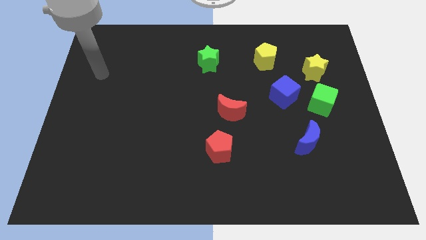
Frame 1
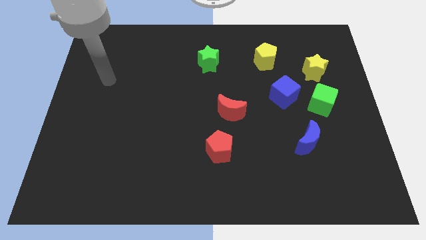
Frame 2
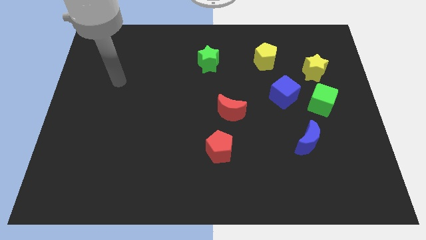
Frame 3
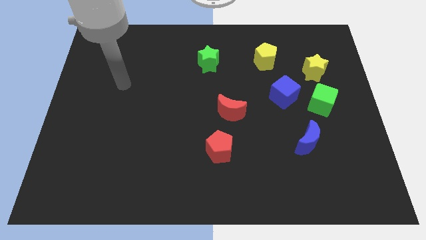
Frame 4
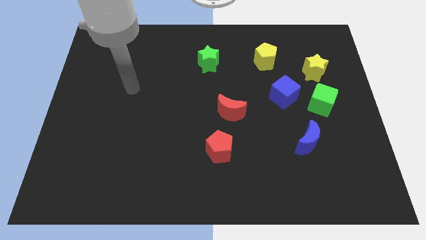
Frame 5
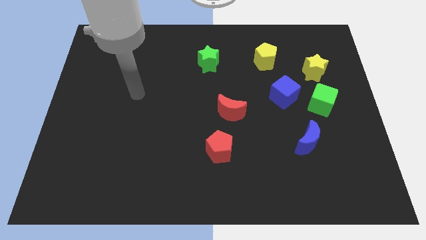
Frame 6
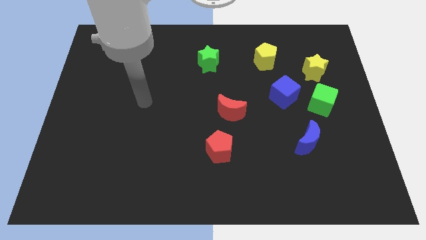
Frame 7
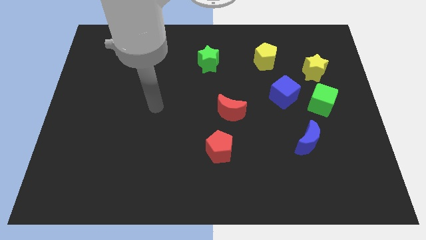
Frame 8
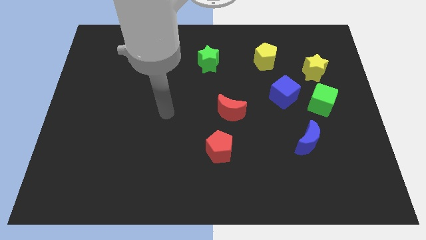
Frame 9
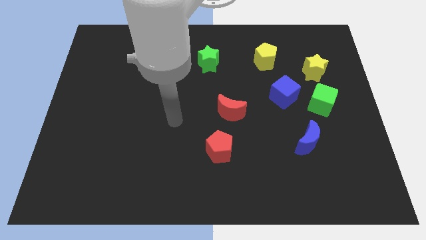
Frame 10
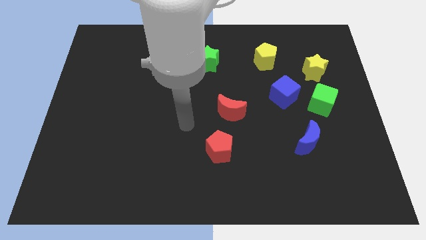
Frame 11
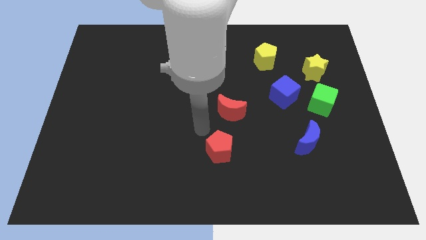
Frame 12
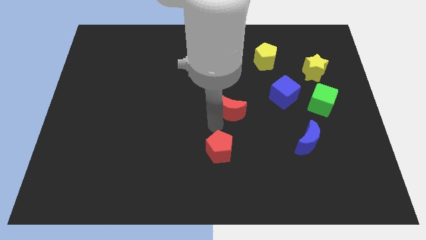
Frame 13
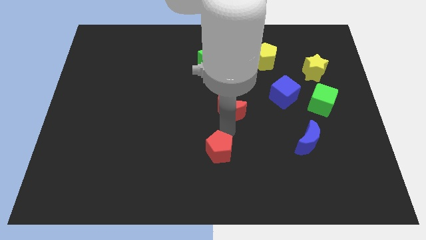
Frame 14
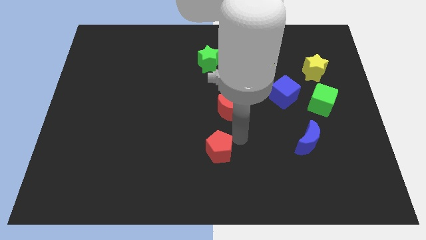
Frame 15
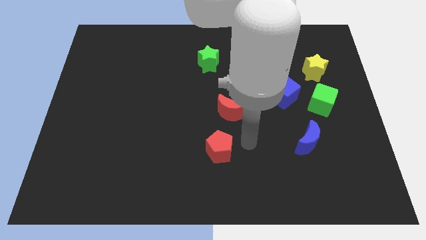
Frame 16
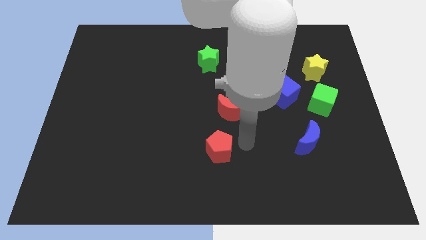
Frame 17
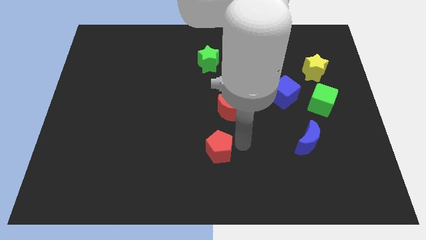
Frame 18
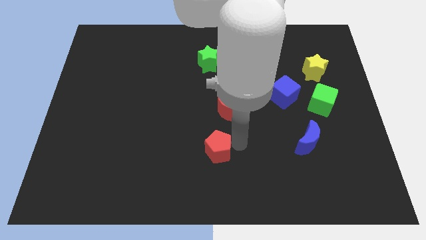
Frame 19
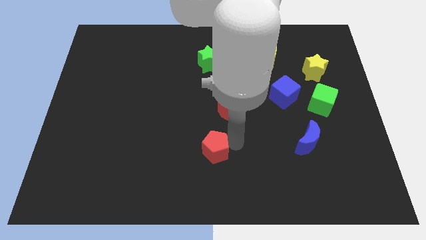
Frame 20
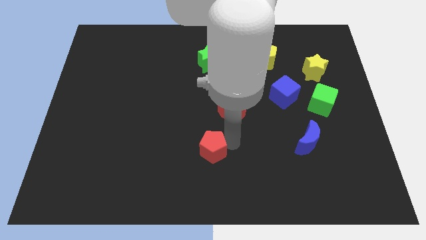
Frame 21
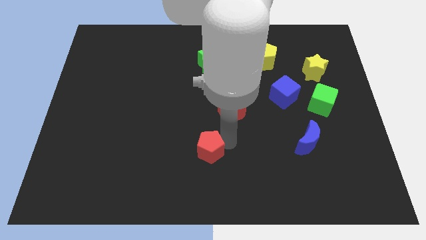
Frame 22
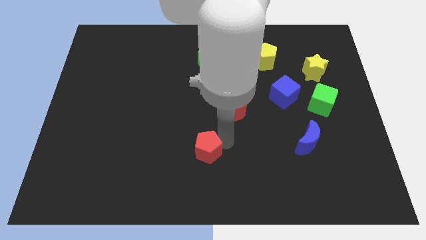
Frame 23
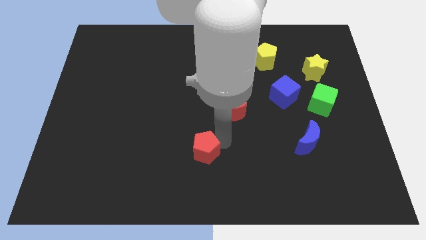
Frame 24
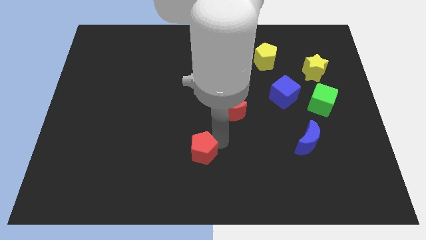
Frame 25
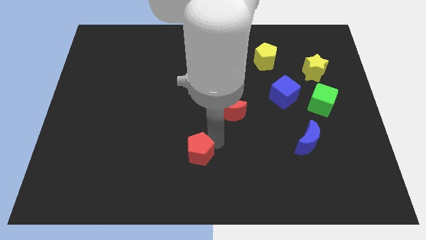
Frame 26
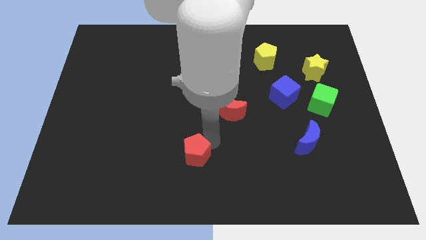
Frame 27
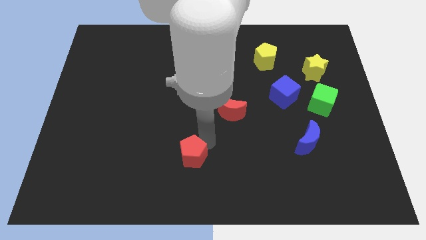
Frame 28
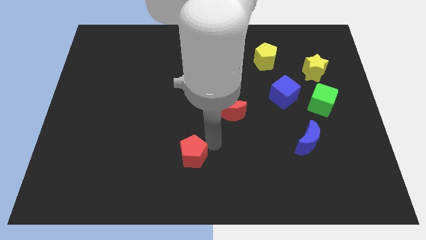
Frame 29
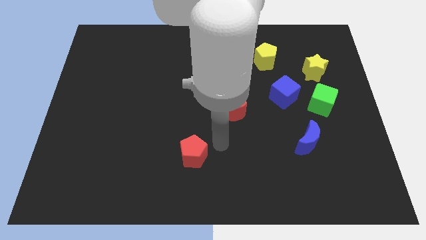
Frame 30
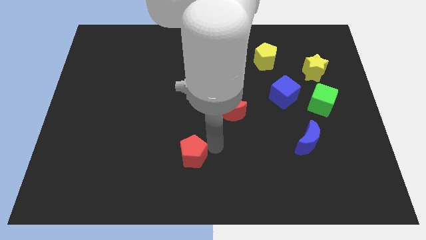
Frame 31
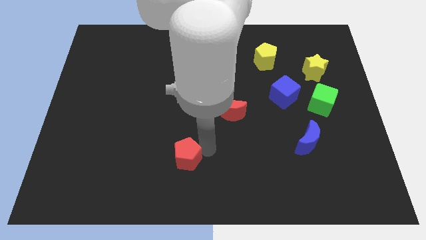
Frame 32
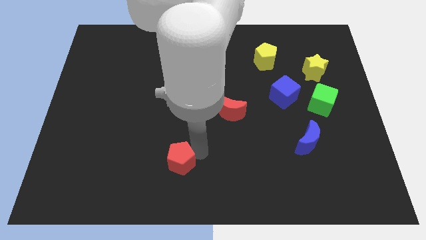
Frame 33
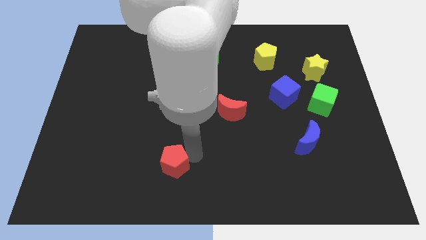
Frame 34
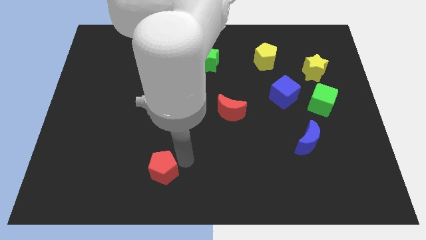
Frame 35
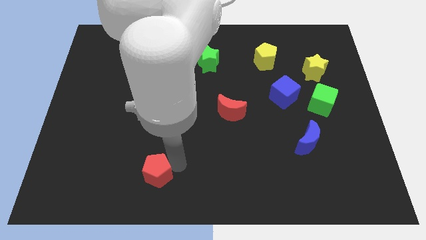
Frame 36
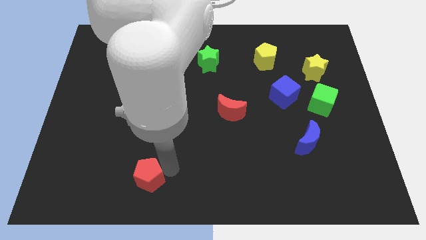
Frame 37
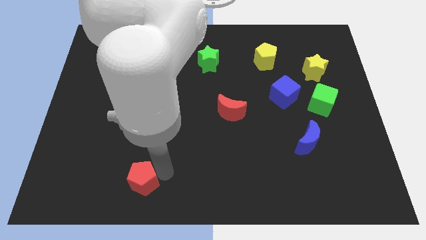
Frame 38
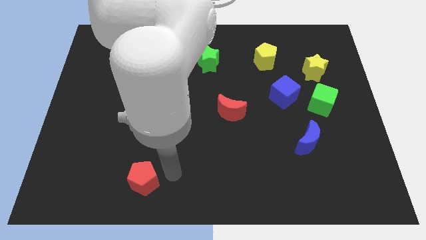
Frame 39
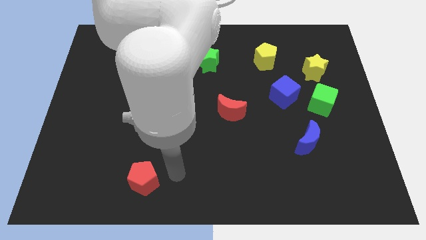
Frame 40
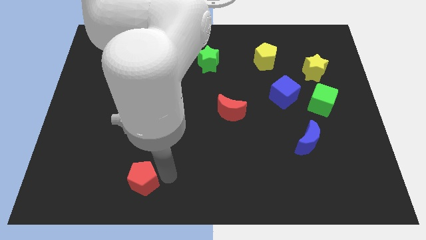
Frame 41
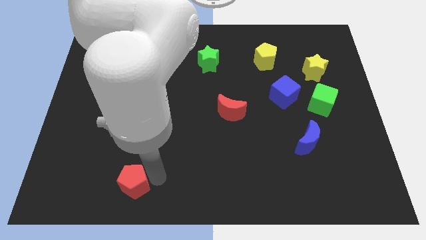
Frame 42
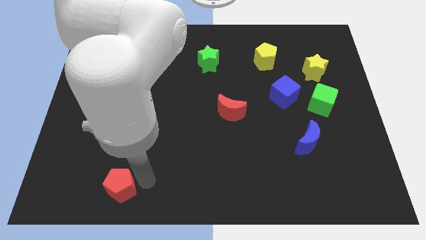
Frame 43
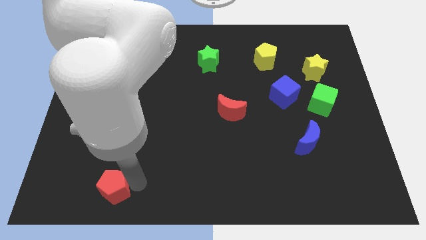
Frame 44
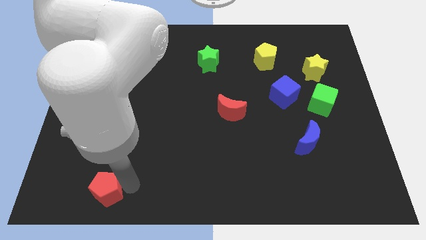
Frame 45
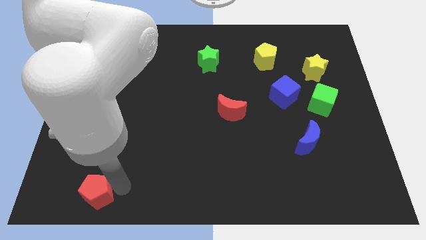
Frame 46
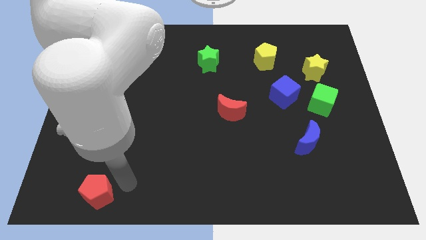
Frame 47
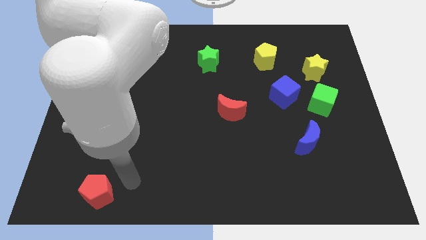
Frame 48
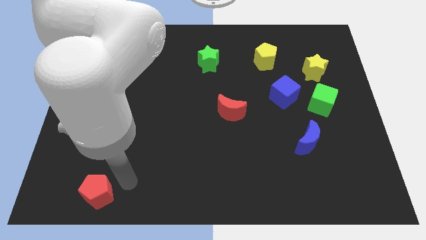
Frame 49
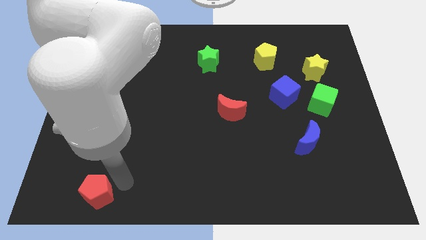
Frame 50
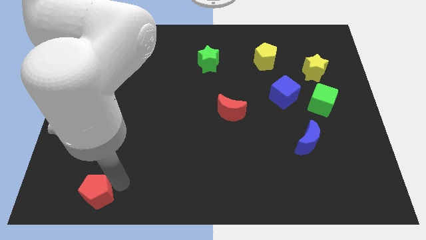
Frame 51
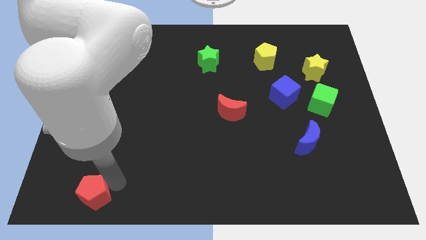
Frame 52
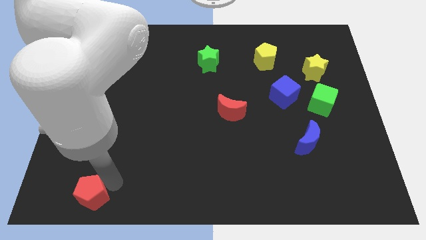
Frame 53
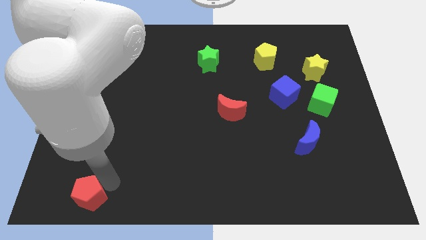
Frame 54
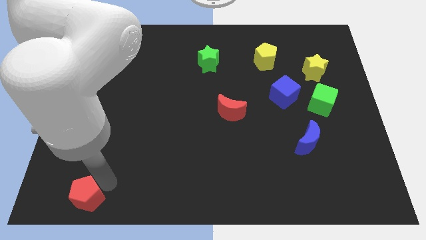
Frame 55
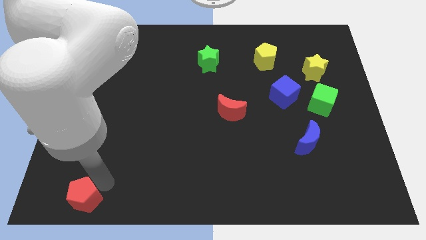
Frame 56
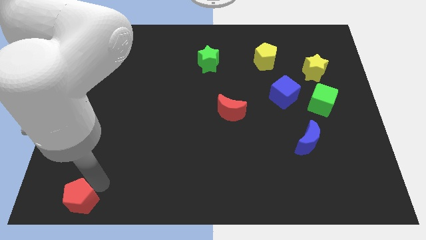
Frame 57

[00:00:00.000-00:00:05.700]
put the red pentagon to the bottom left of the board
